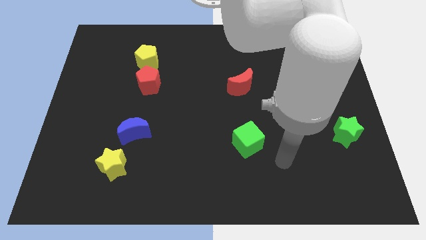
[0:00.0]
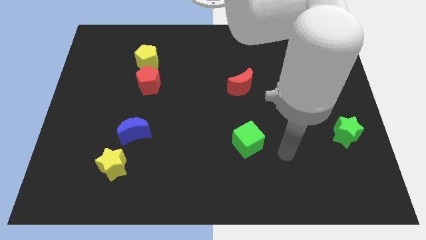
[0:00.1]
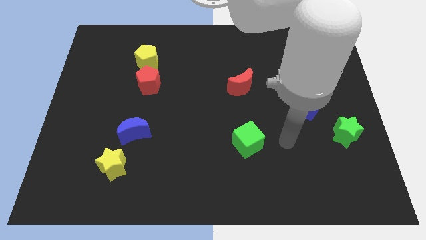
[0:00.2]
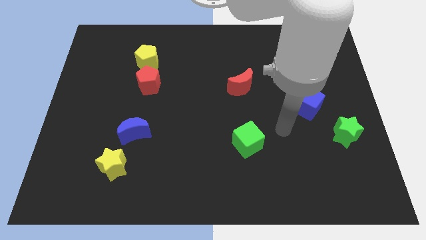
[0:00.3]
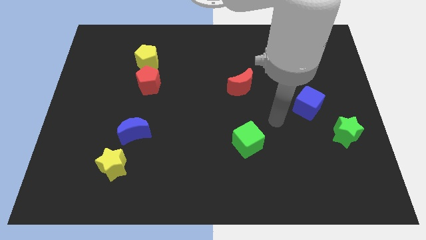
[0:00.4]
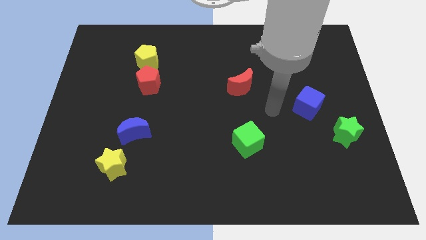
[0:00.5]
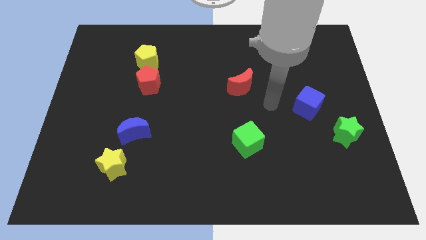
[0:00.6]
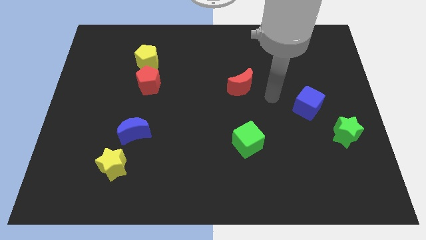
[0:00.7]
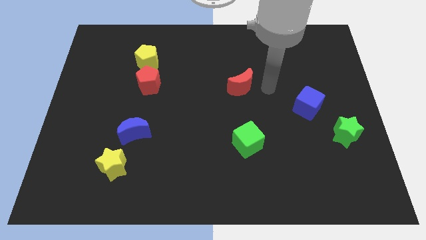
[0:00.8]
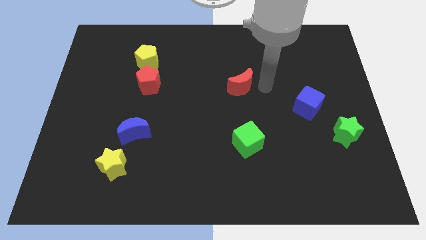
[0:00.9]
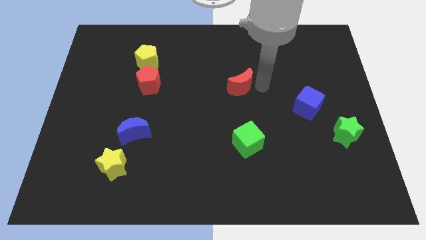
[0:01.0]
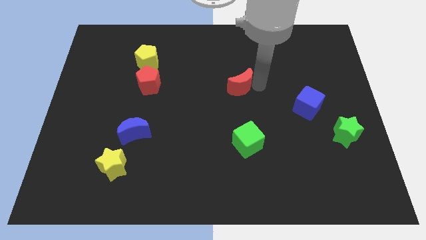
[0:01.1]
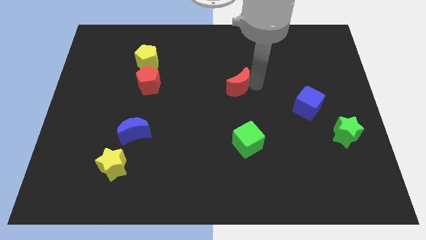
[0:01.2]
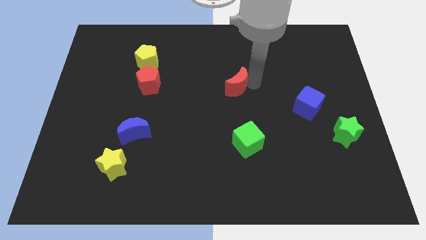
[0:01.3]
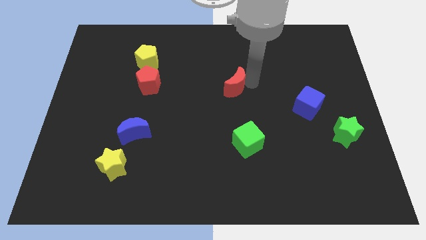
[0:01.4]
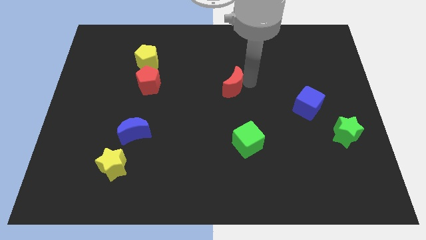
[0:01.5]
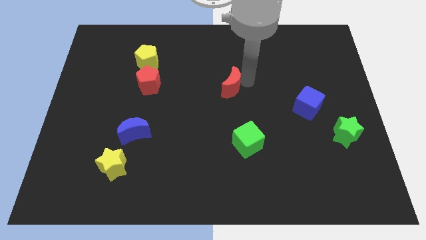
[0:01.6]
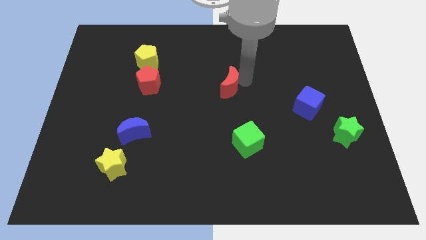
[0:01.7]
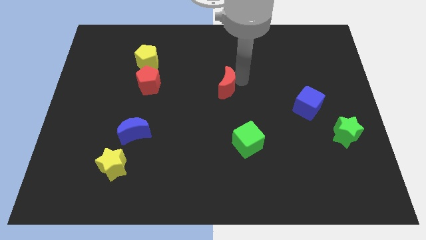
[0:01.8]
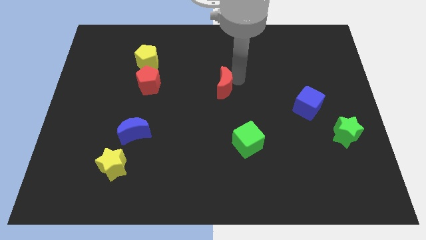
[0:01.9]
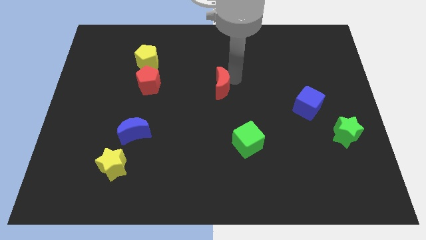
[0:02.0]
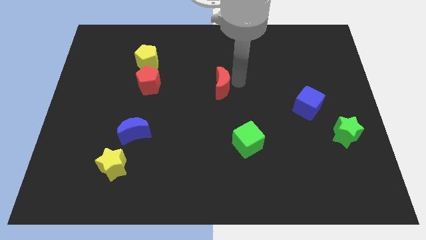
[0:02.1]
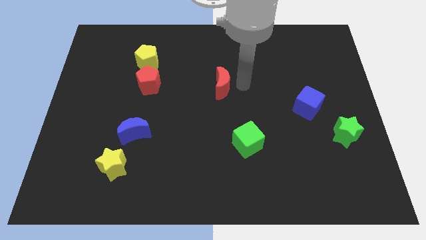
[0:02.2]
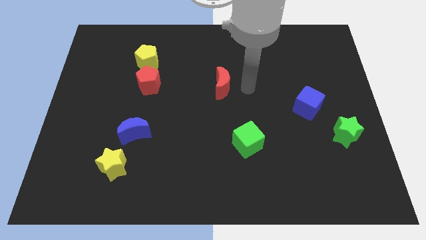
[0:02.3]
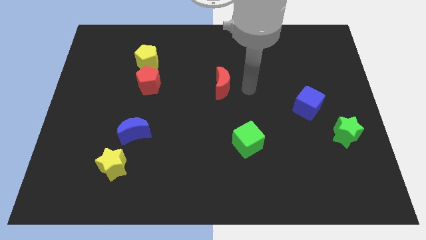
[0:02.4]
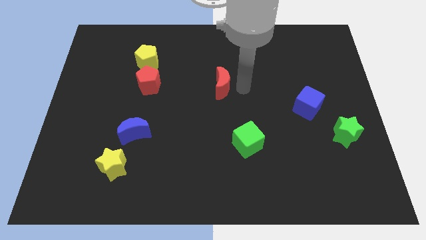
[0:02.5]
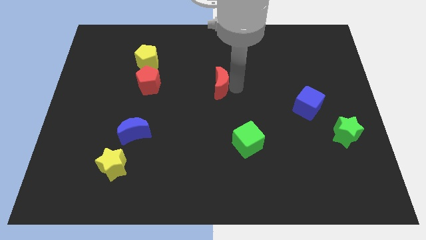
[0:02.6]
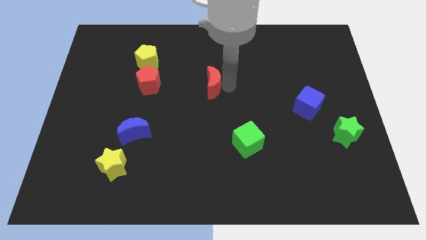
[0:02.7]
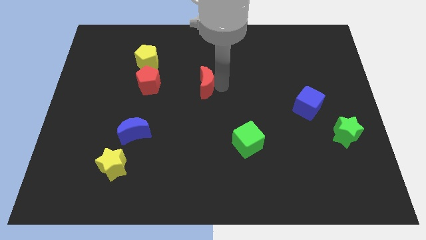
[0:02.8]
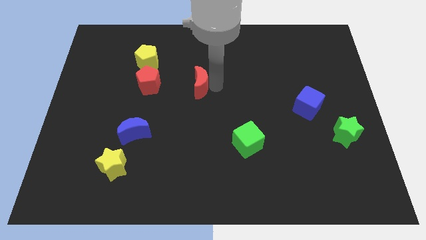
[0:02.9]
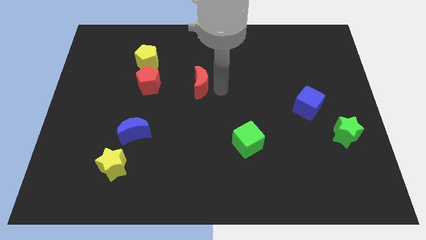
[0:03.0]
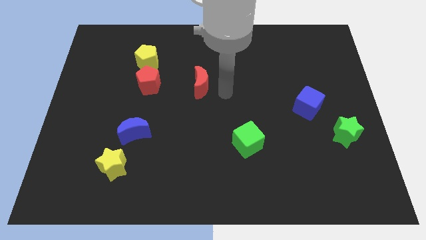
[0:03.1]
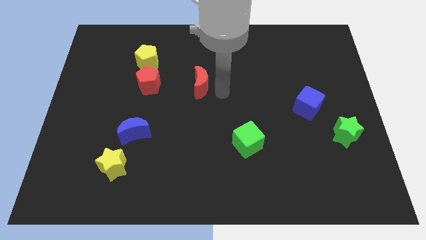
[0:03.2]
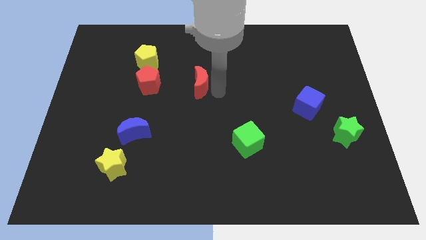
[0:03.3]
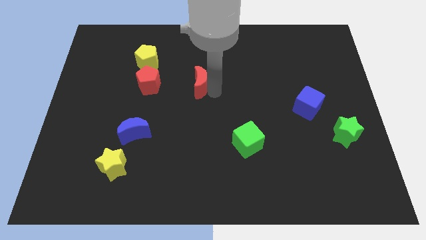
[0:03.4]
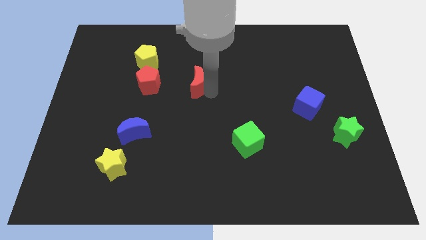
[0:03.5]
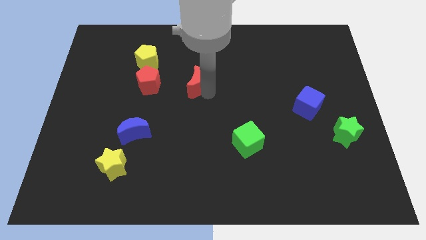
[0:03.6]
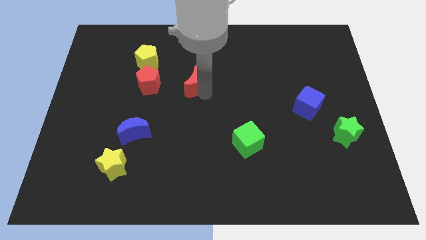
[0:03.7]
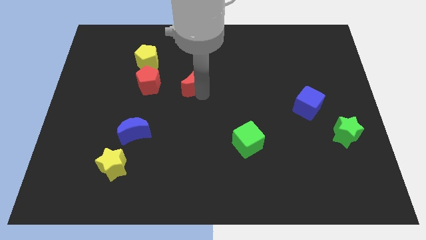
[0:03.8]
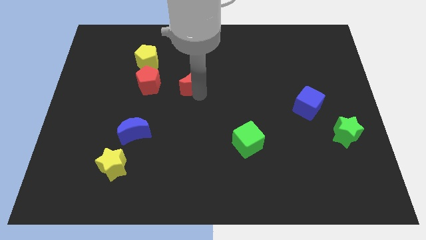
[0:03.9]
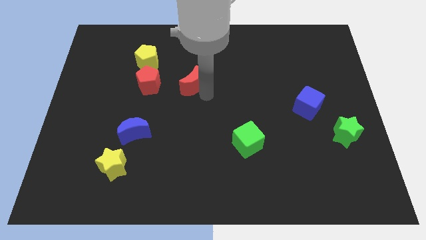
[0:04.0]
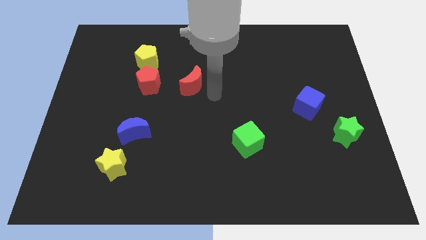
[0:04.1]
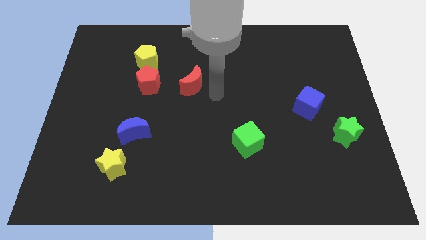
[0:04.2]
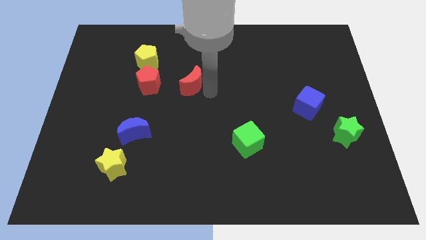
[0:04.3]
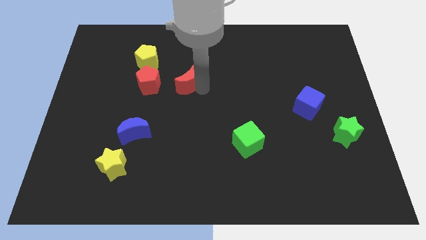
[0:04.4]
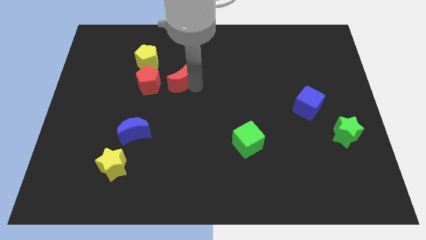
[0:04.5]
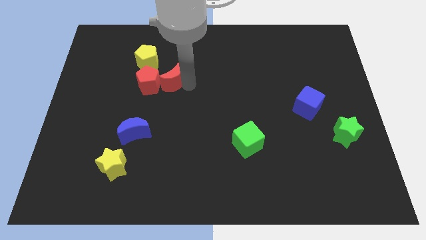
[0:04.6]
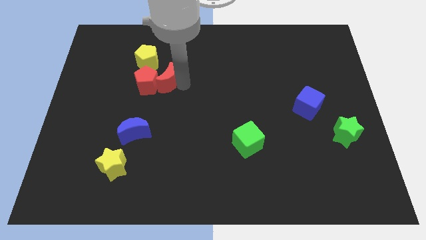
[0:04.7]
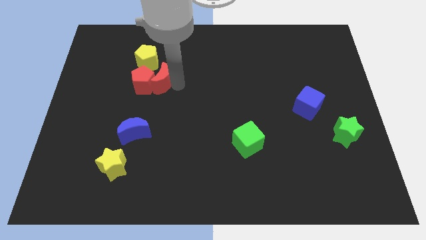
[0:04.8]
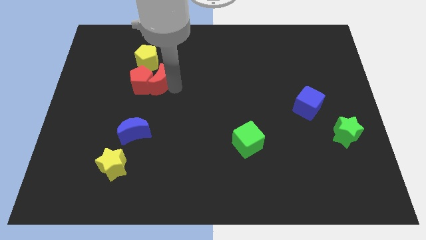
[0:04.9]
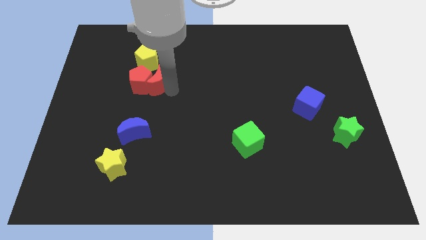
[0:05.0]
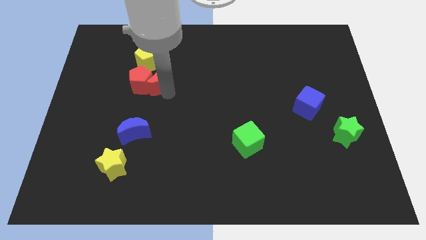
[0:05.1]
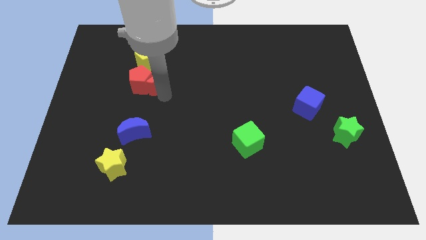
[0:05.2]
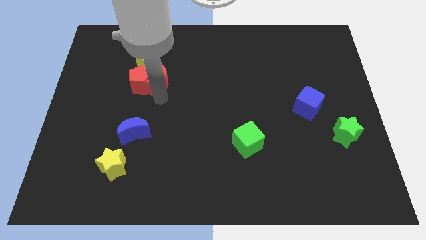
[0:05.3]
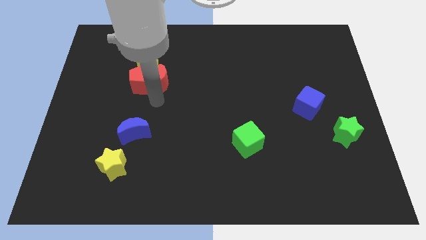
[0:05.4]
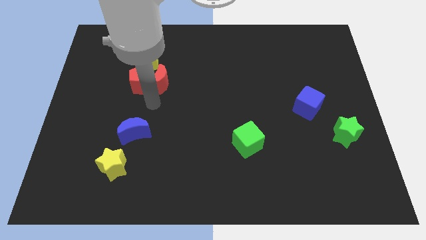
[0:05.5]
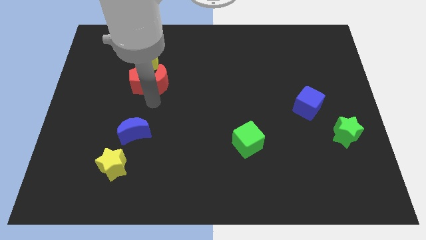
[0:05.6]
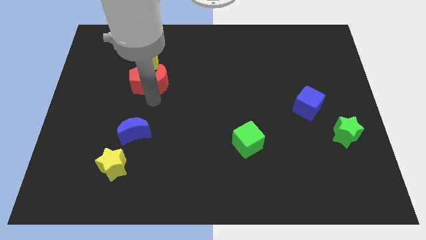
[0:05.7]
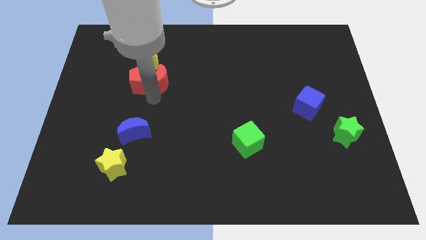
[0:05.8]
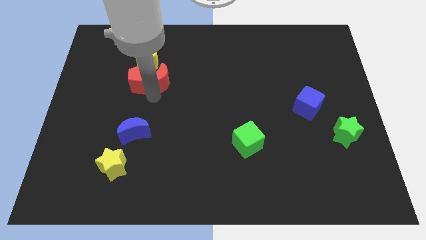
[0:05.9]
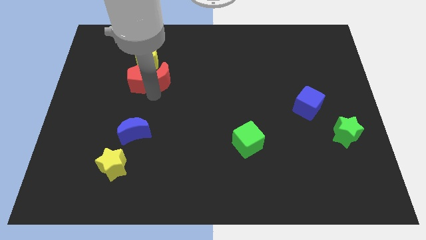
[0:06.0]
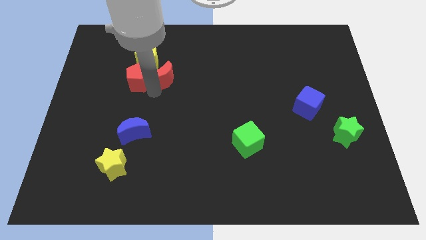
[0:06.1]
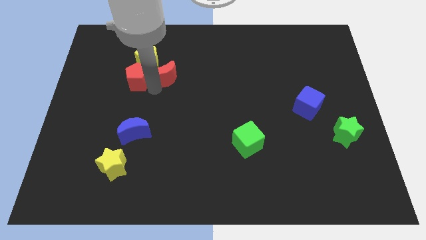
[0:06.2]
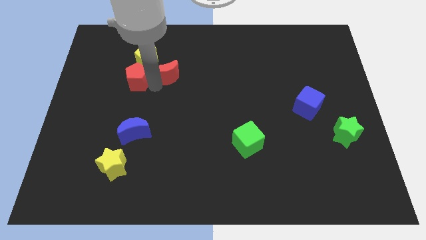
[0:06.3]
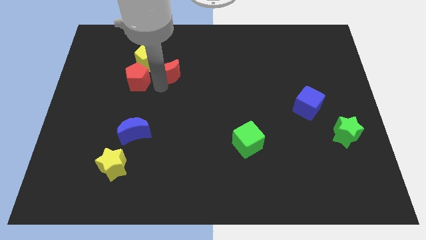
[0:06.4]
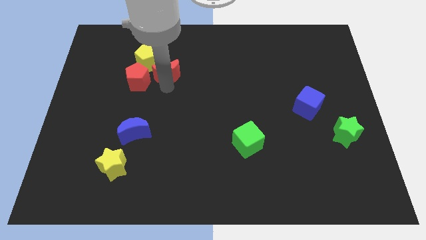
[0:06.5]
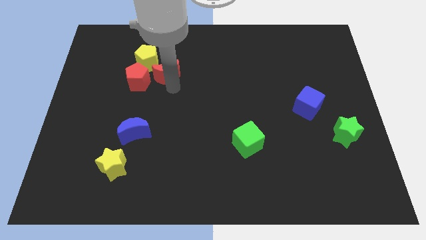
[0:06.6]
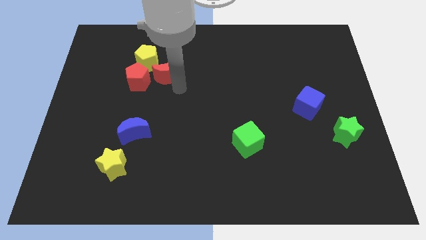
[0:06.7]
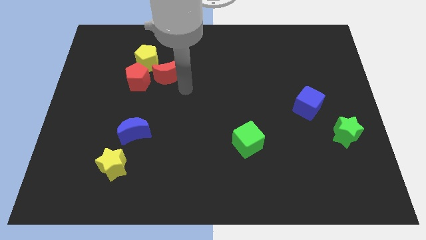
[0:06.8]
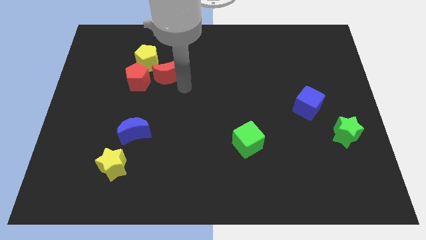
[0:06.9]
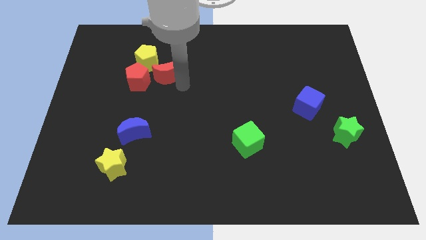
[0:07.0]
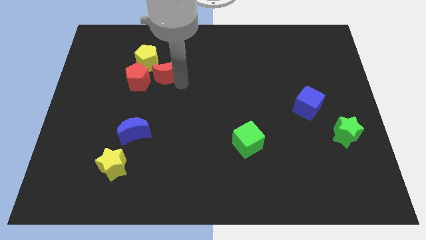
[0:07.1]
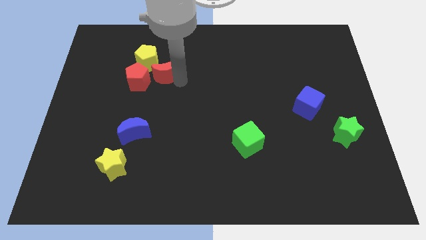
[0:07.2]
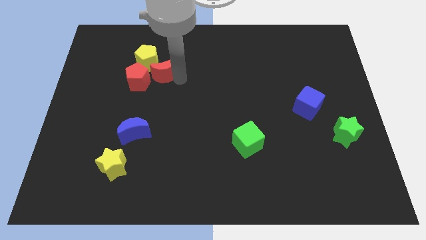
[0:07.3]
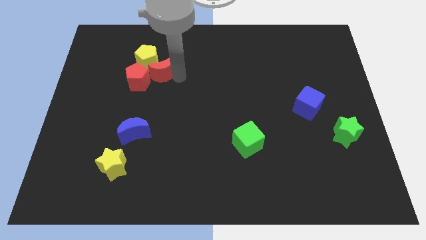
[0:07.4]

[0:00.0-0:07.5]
move the red moon to the yellow pentagon
